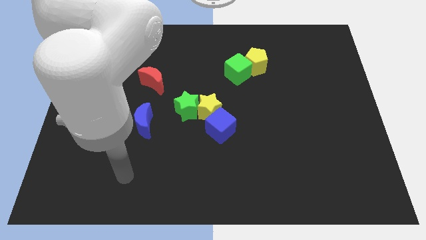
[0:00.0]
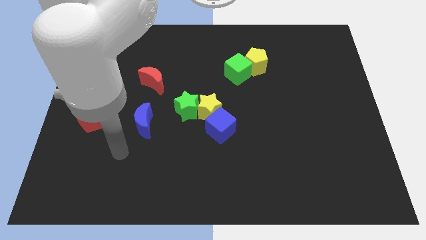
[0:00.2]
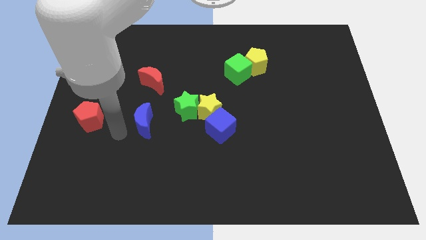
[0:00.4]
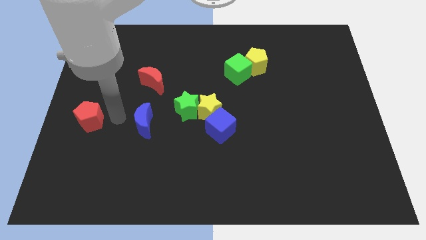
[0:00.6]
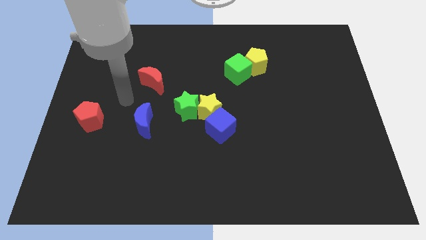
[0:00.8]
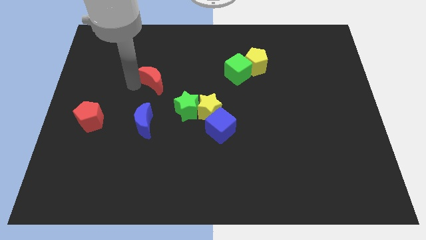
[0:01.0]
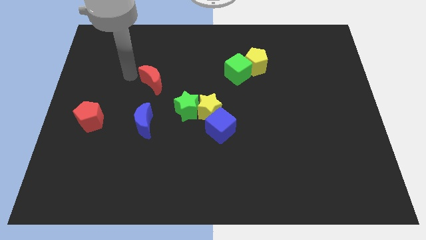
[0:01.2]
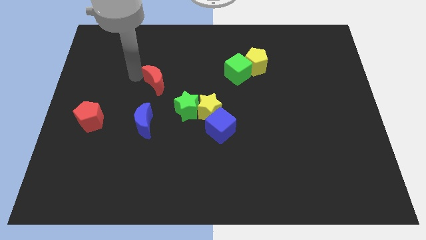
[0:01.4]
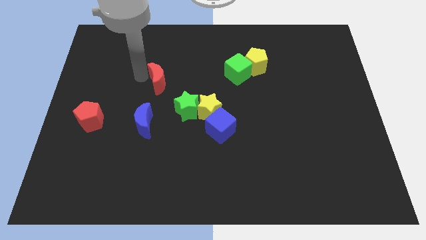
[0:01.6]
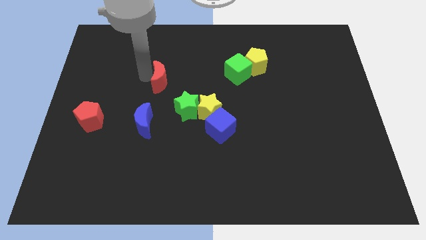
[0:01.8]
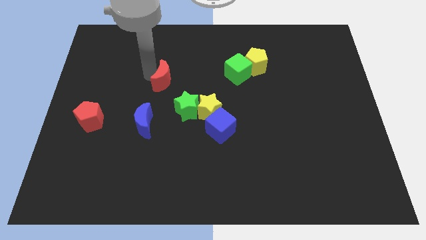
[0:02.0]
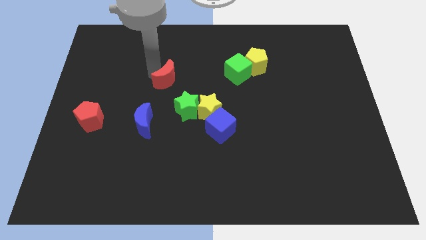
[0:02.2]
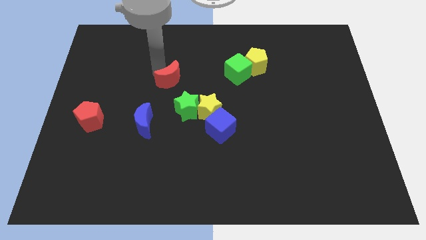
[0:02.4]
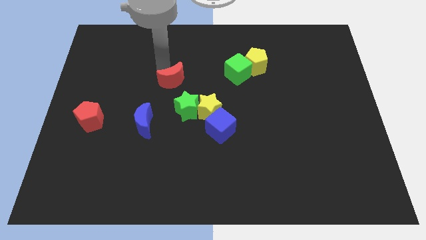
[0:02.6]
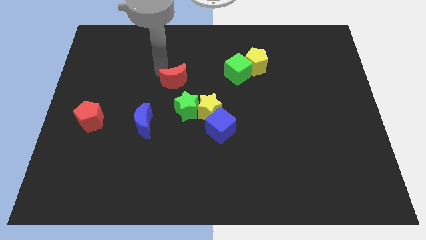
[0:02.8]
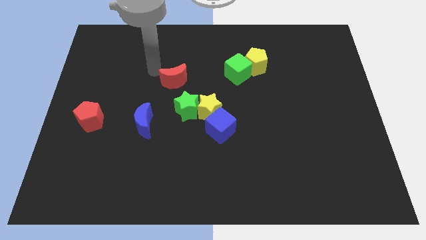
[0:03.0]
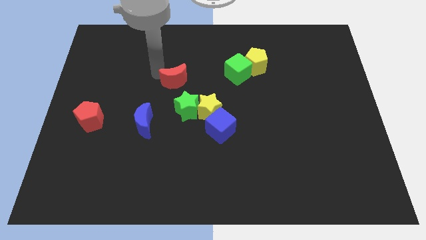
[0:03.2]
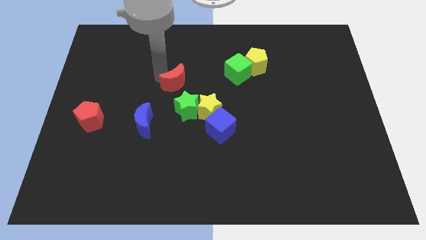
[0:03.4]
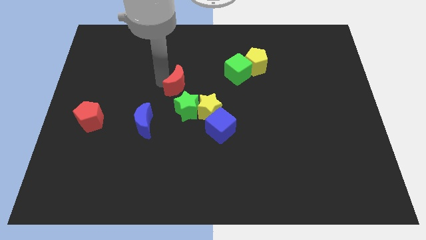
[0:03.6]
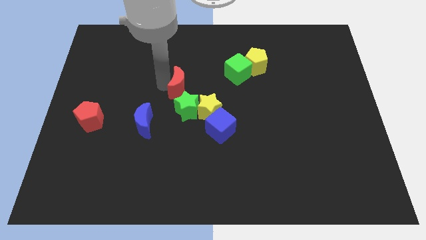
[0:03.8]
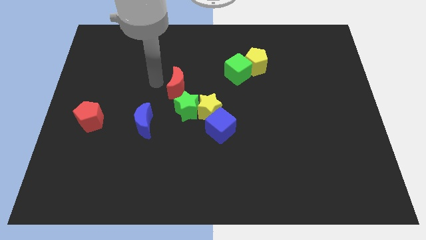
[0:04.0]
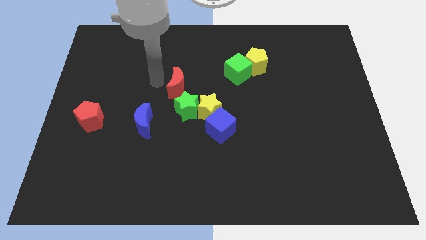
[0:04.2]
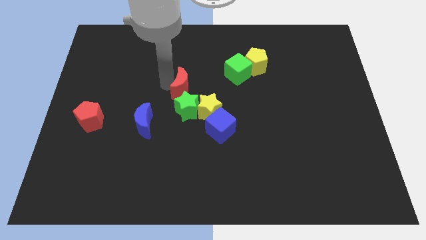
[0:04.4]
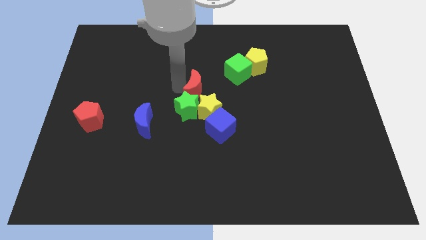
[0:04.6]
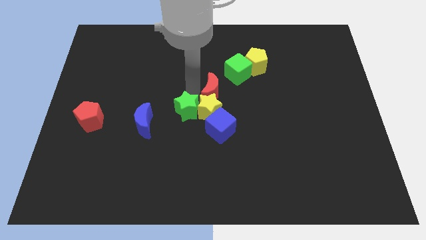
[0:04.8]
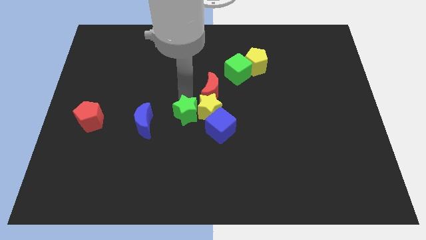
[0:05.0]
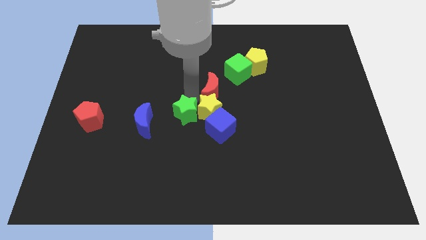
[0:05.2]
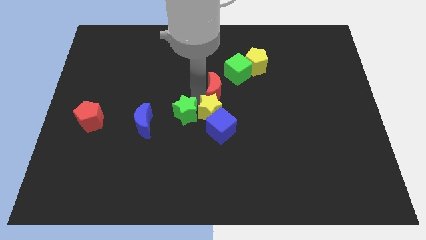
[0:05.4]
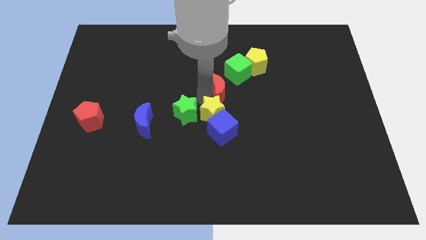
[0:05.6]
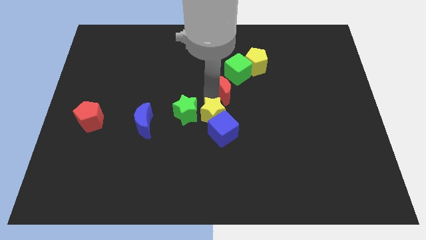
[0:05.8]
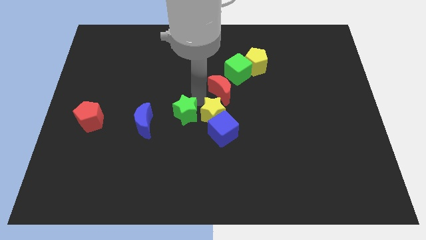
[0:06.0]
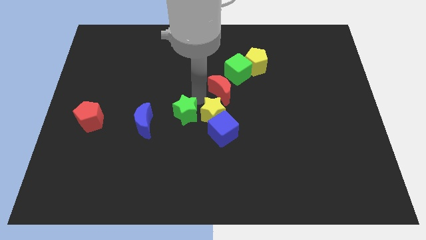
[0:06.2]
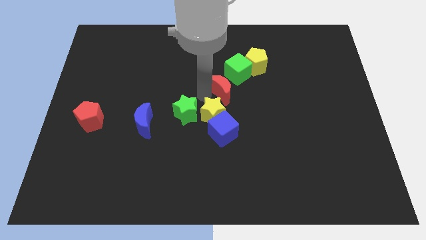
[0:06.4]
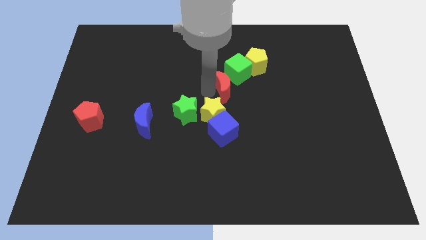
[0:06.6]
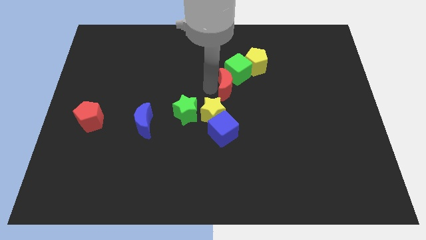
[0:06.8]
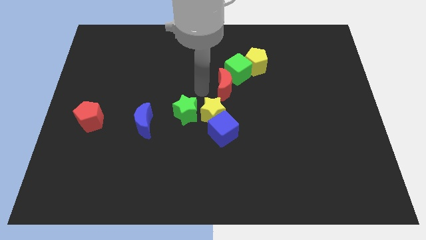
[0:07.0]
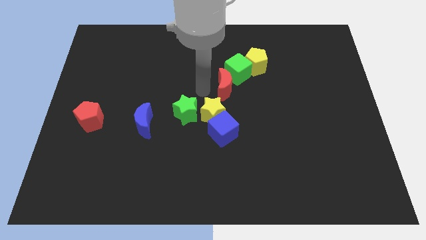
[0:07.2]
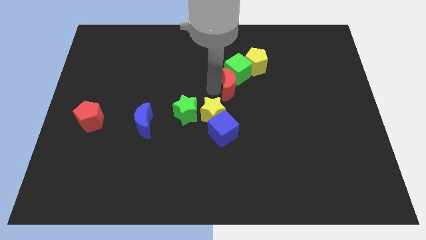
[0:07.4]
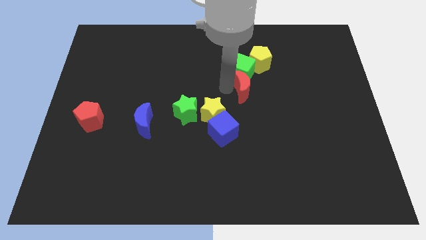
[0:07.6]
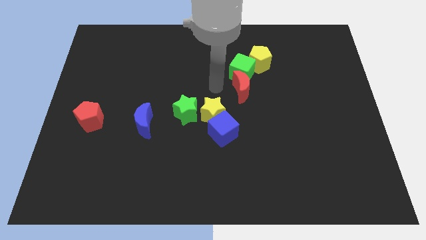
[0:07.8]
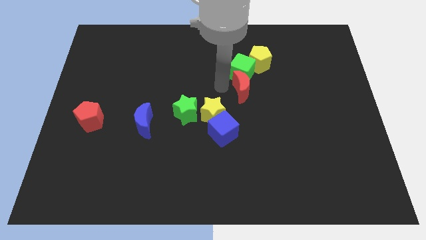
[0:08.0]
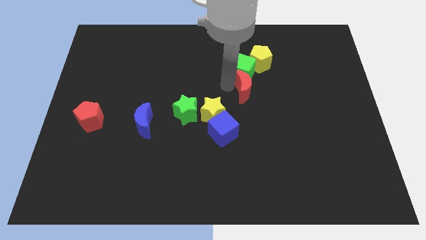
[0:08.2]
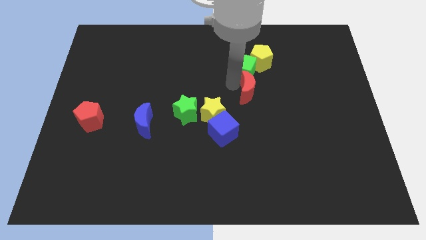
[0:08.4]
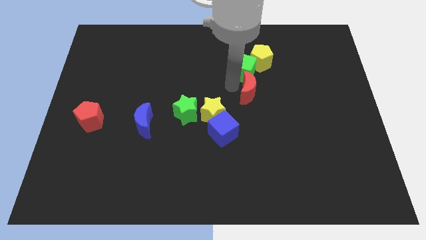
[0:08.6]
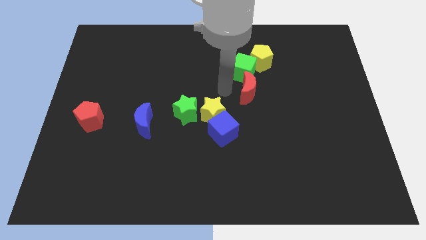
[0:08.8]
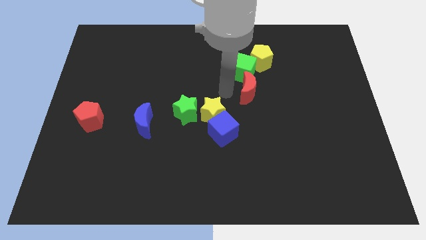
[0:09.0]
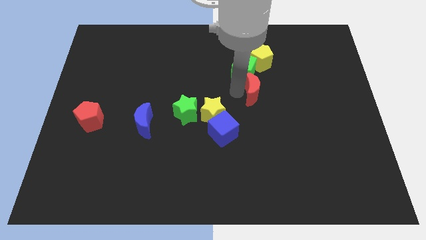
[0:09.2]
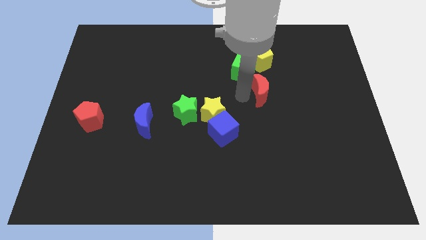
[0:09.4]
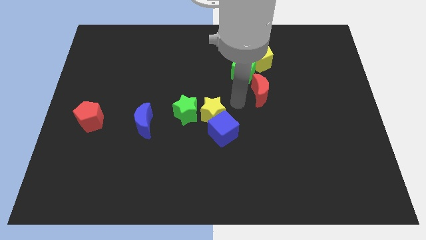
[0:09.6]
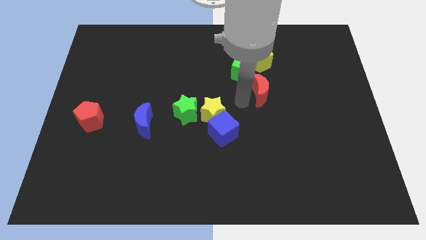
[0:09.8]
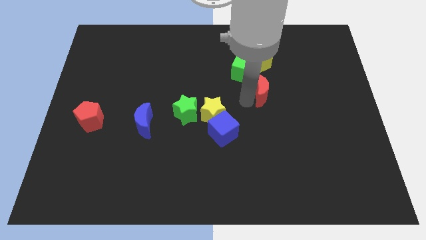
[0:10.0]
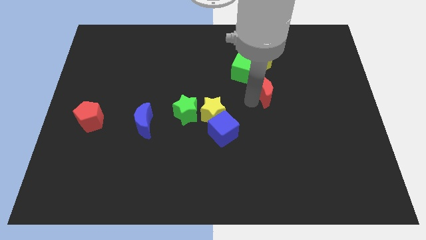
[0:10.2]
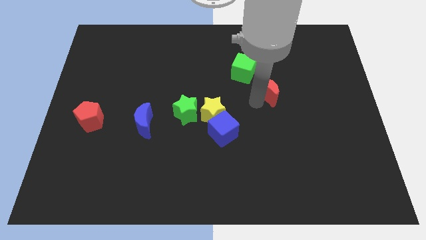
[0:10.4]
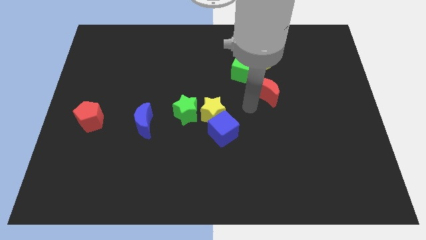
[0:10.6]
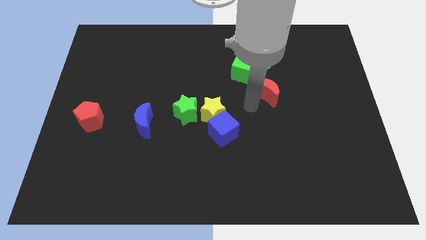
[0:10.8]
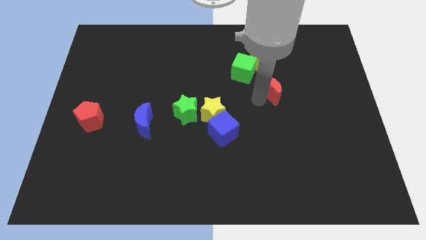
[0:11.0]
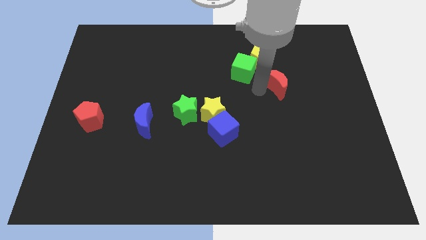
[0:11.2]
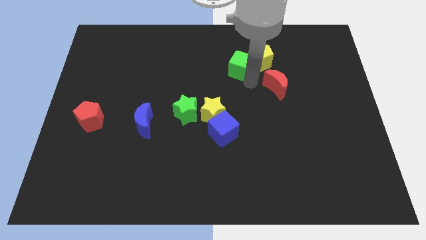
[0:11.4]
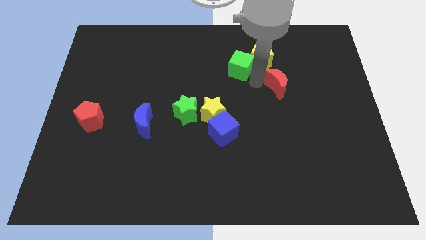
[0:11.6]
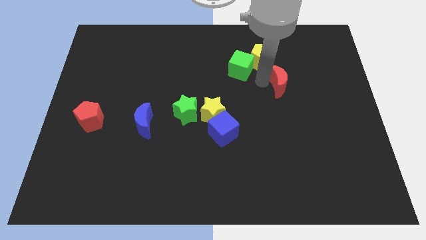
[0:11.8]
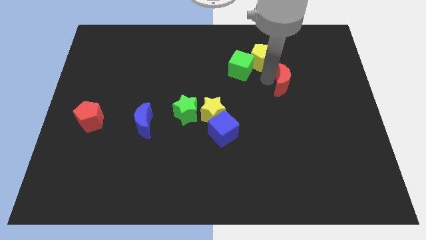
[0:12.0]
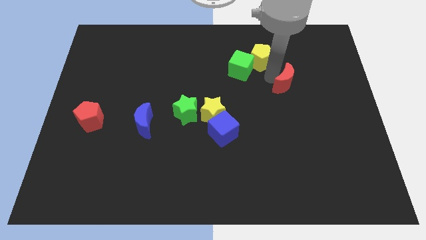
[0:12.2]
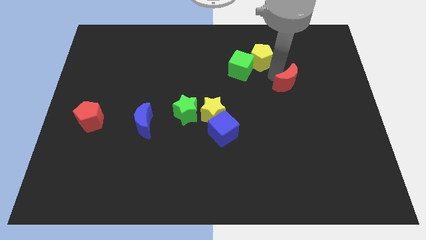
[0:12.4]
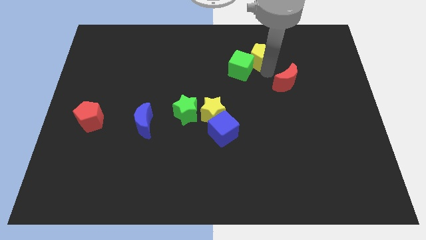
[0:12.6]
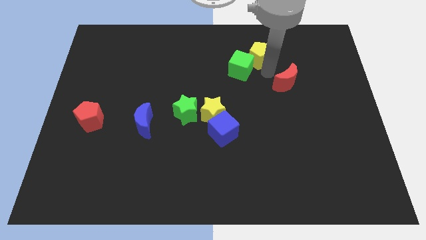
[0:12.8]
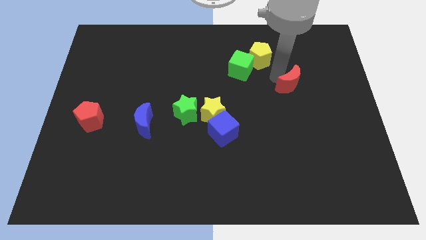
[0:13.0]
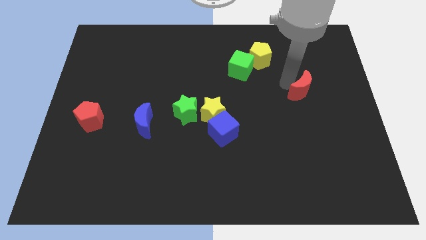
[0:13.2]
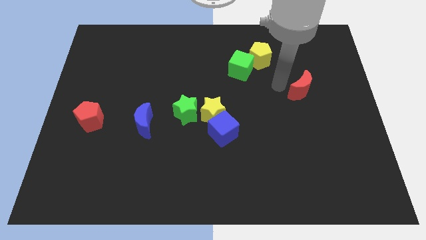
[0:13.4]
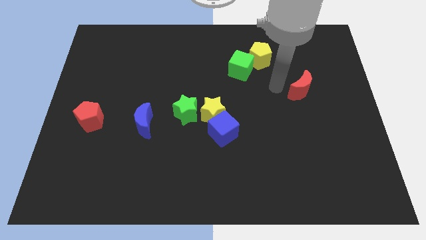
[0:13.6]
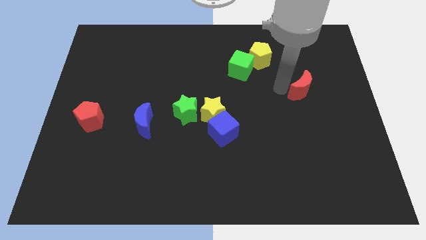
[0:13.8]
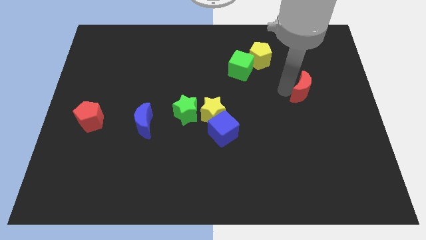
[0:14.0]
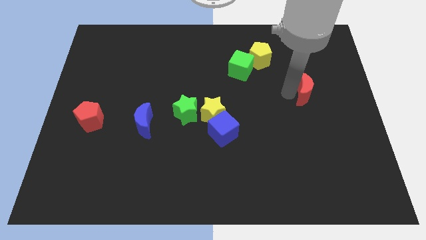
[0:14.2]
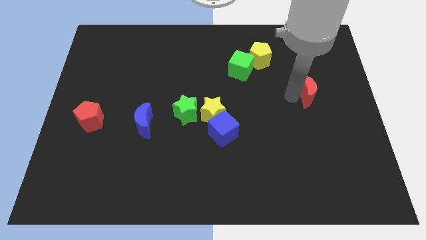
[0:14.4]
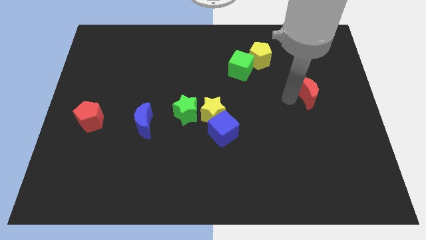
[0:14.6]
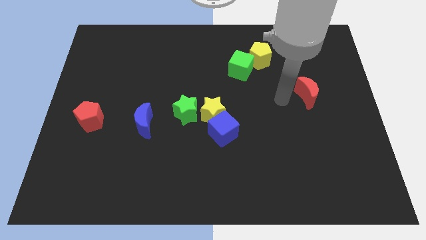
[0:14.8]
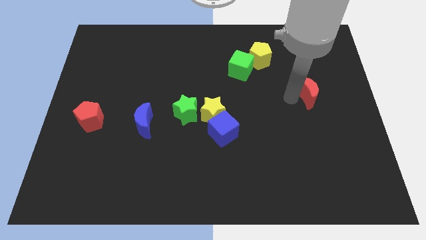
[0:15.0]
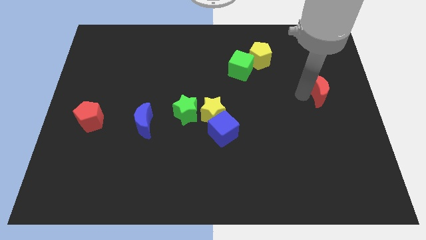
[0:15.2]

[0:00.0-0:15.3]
put the red moon to the center right
